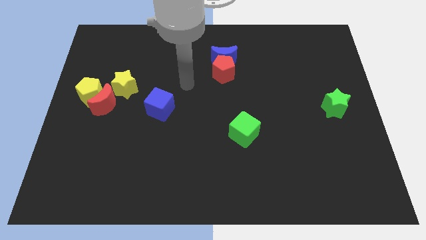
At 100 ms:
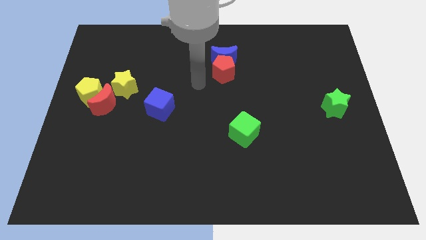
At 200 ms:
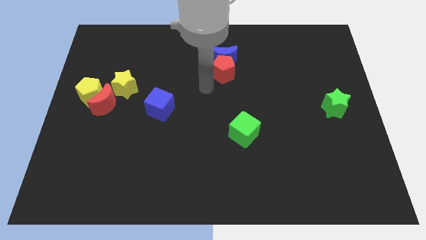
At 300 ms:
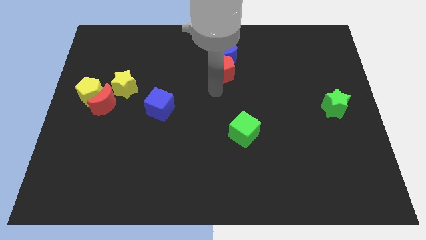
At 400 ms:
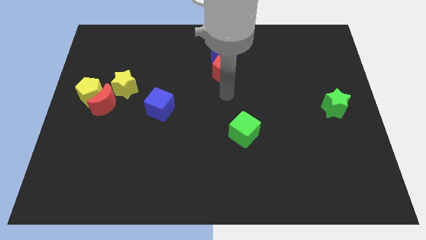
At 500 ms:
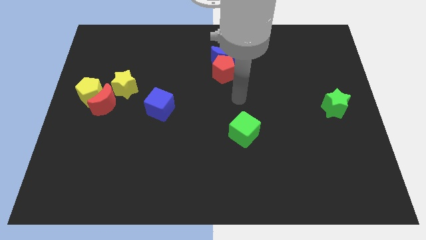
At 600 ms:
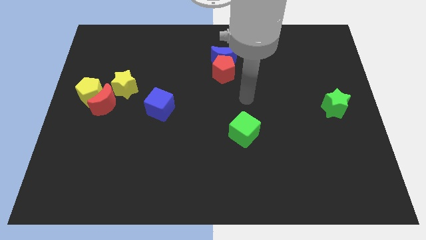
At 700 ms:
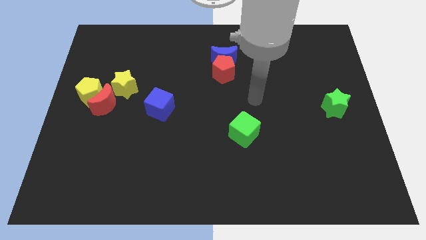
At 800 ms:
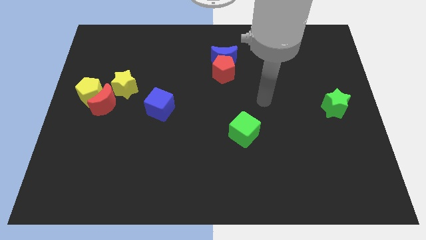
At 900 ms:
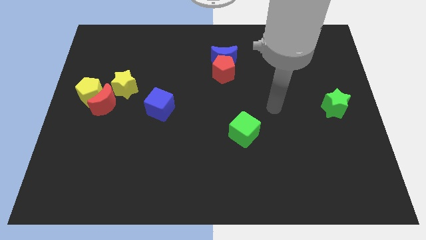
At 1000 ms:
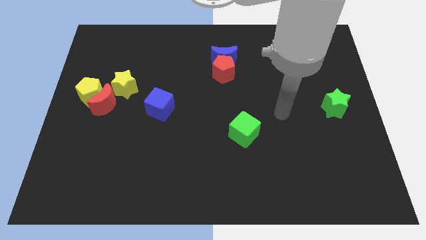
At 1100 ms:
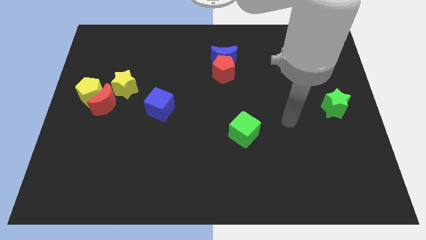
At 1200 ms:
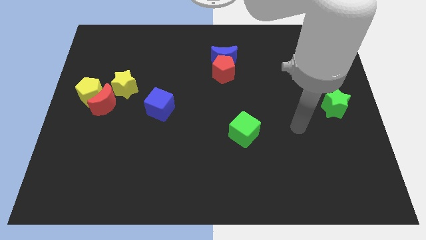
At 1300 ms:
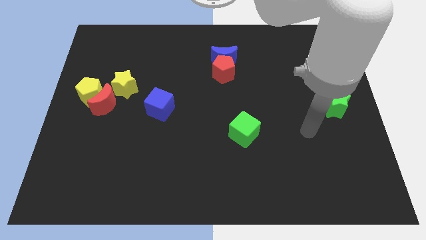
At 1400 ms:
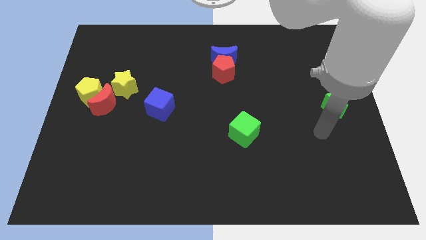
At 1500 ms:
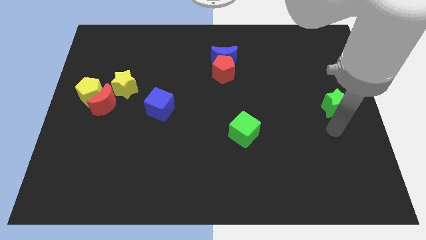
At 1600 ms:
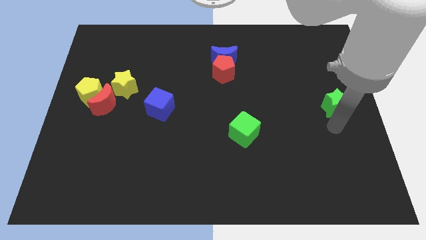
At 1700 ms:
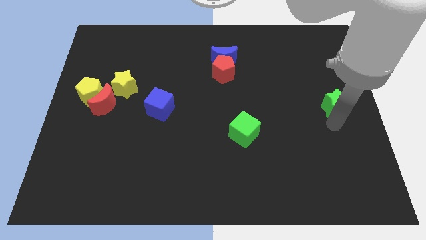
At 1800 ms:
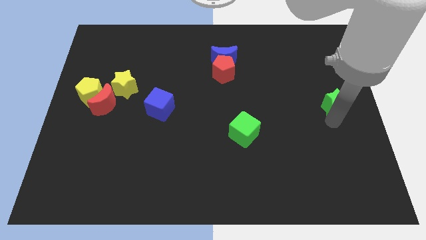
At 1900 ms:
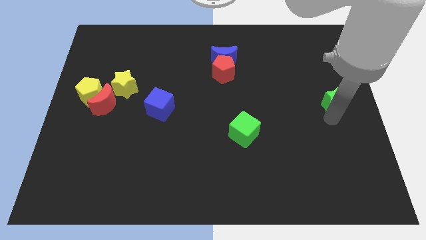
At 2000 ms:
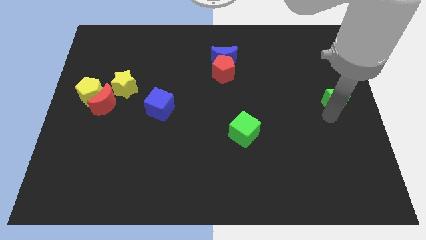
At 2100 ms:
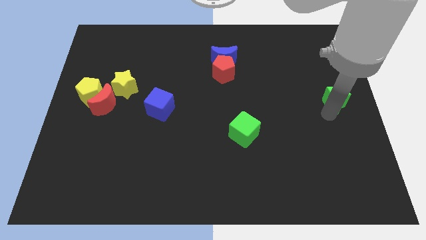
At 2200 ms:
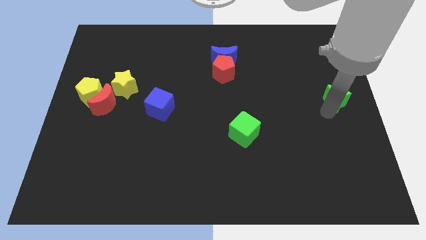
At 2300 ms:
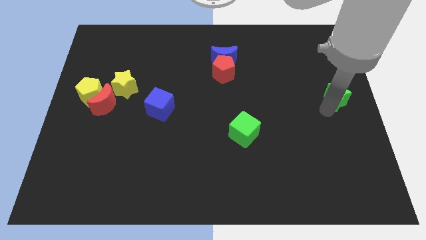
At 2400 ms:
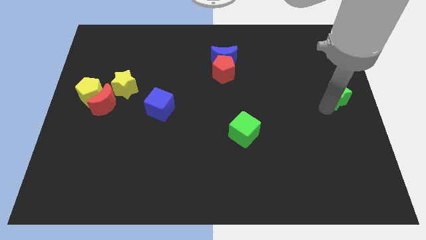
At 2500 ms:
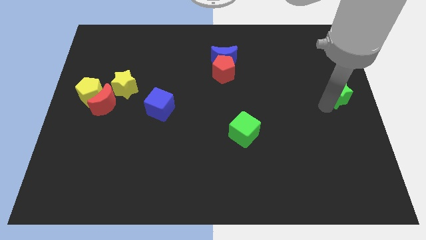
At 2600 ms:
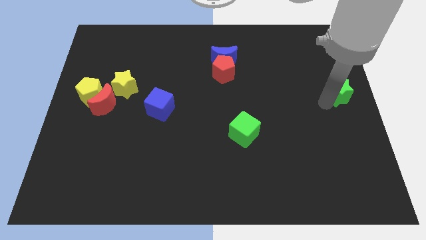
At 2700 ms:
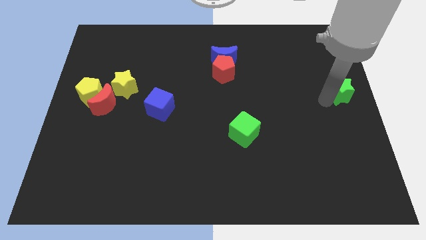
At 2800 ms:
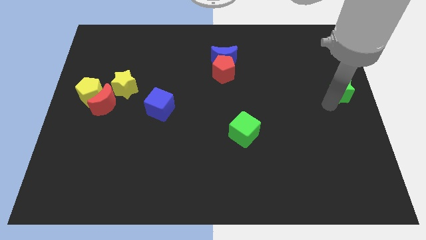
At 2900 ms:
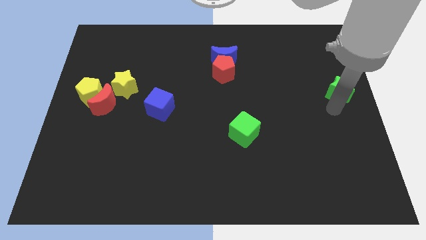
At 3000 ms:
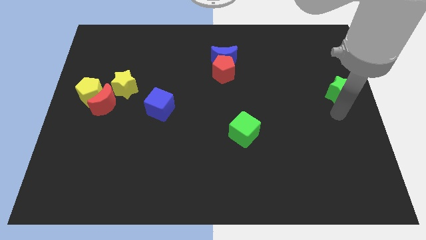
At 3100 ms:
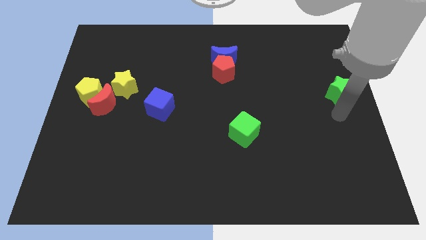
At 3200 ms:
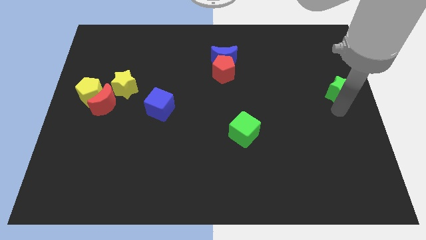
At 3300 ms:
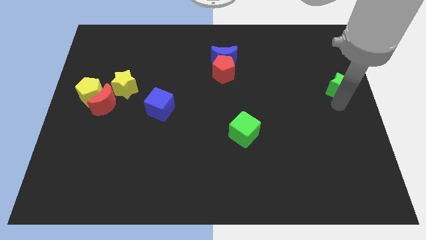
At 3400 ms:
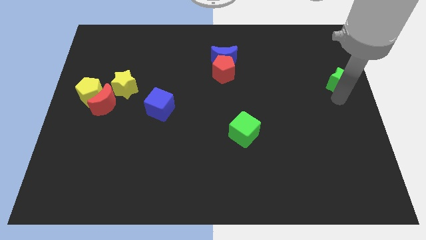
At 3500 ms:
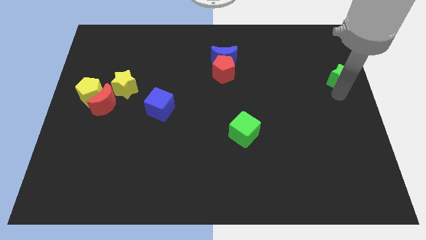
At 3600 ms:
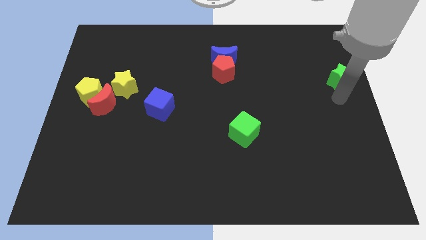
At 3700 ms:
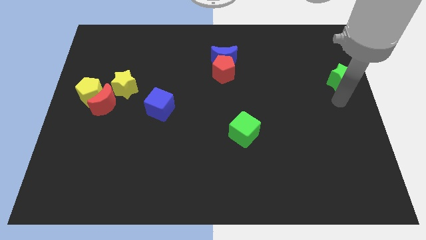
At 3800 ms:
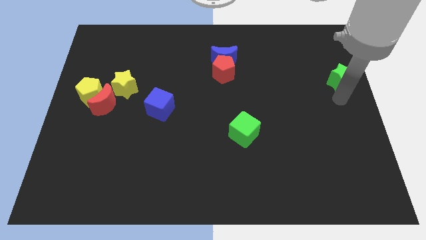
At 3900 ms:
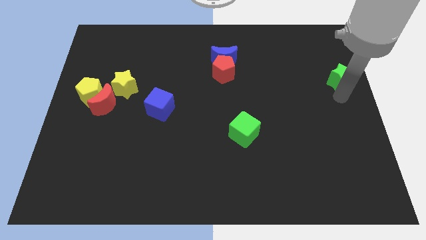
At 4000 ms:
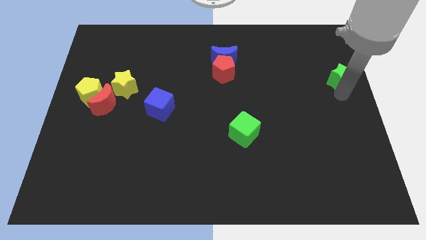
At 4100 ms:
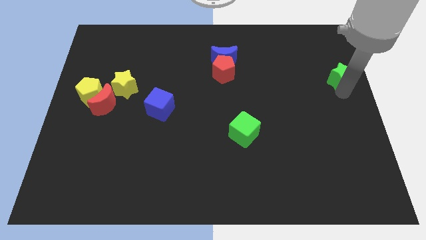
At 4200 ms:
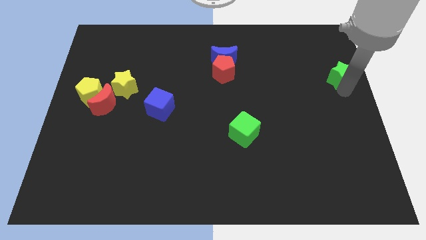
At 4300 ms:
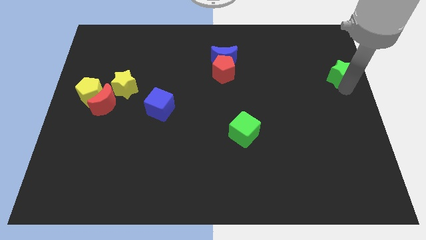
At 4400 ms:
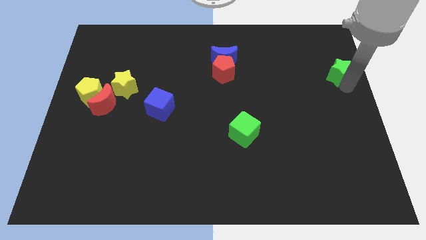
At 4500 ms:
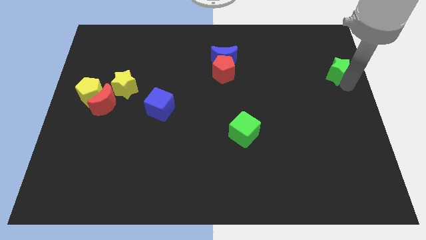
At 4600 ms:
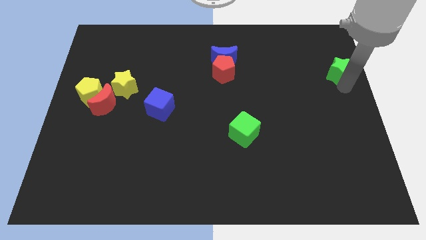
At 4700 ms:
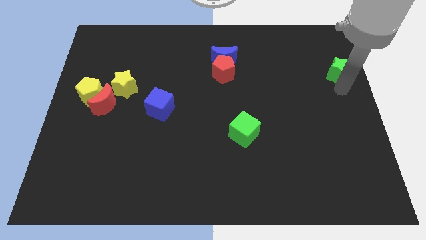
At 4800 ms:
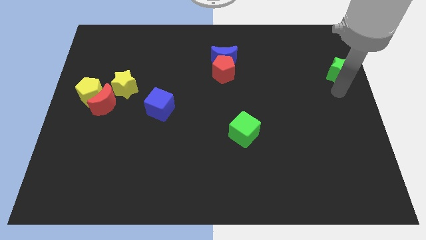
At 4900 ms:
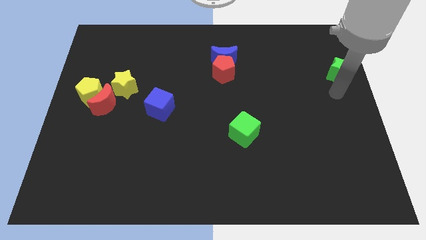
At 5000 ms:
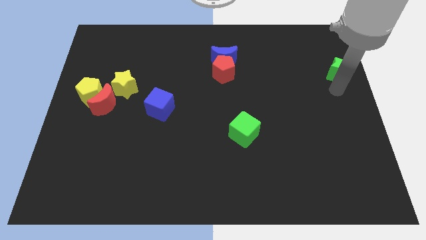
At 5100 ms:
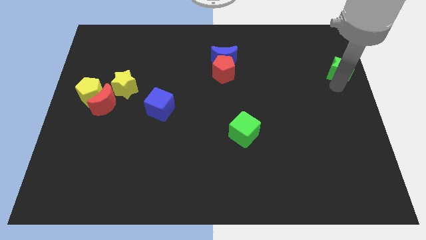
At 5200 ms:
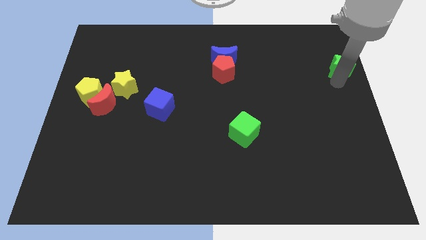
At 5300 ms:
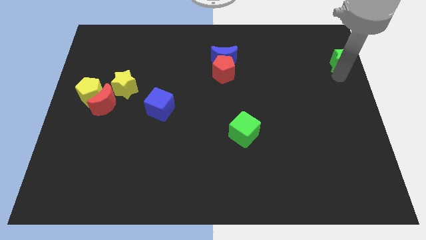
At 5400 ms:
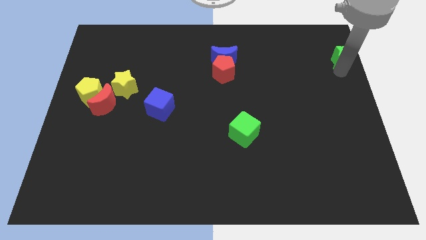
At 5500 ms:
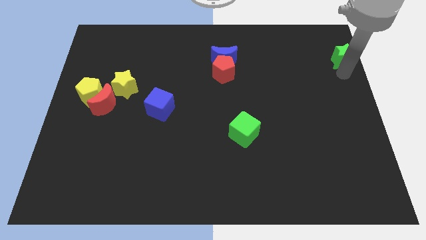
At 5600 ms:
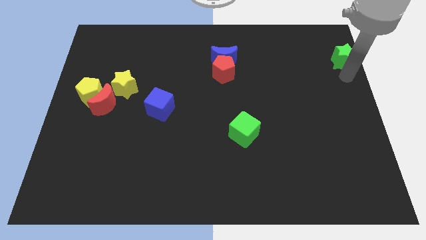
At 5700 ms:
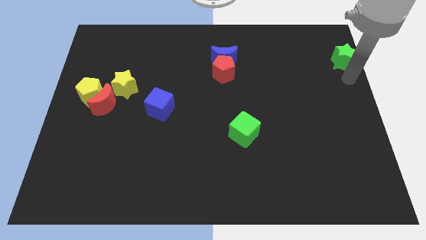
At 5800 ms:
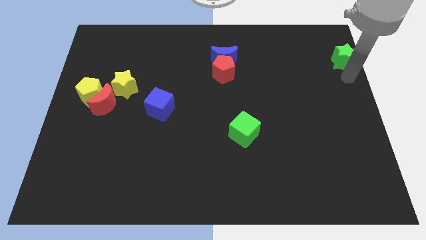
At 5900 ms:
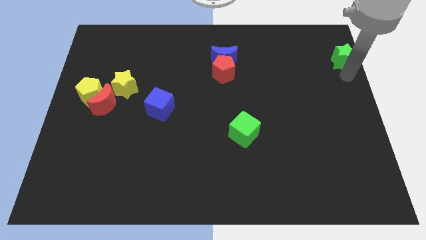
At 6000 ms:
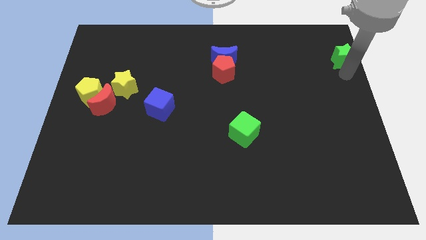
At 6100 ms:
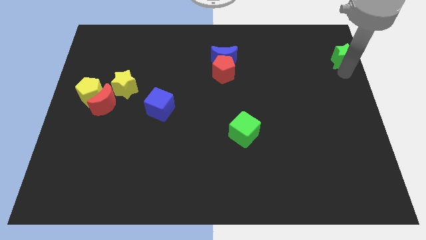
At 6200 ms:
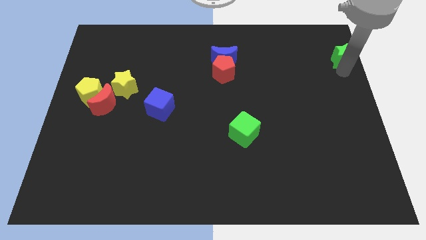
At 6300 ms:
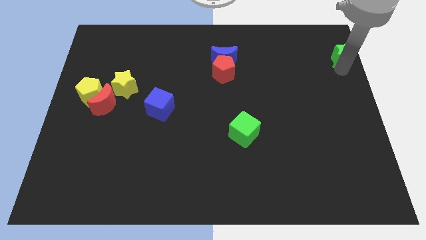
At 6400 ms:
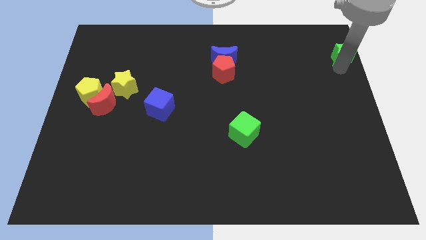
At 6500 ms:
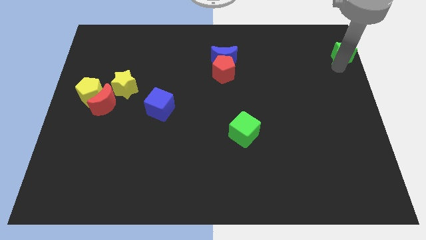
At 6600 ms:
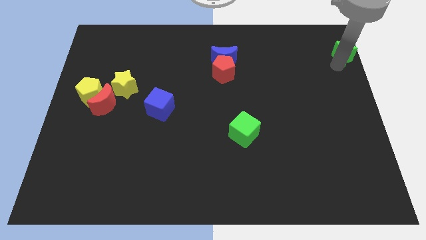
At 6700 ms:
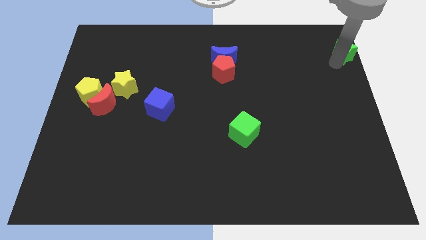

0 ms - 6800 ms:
put the green star to the top right

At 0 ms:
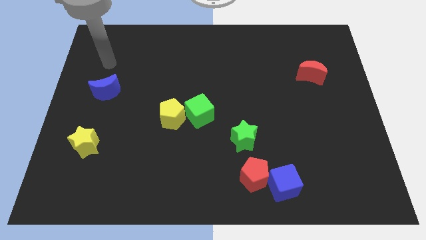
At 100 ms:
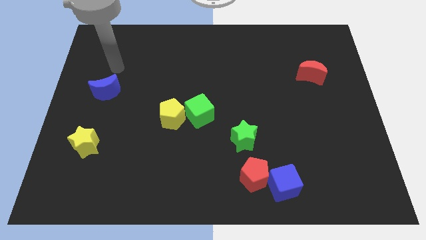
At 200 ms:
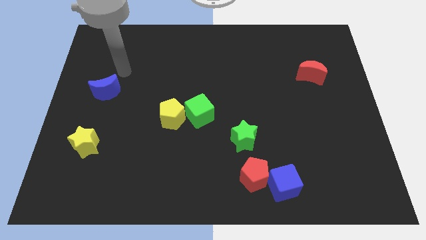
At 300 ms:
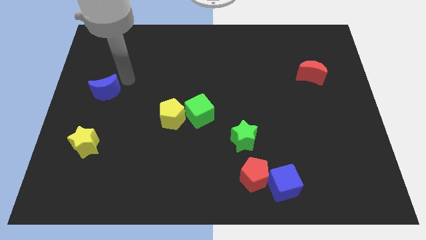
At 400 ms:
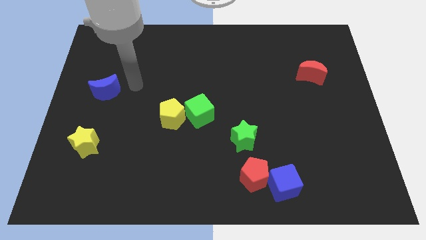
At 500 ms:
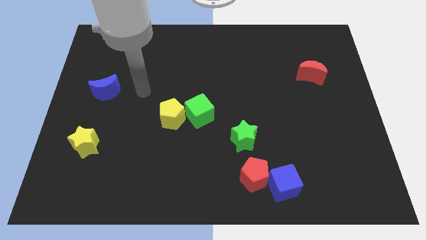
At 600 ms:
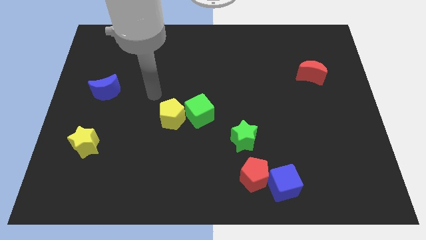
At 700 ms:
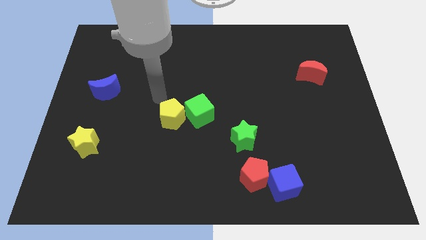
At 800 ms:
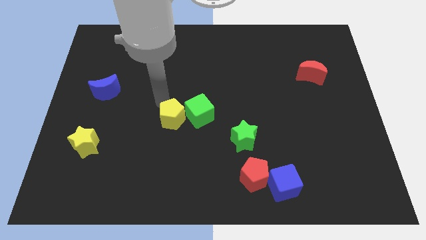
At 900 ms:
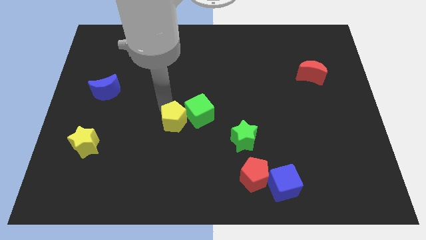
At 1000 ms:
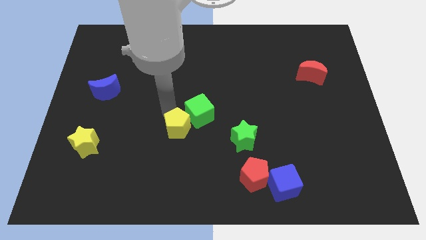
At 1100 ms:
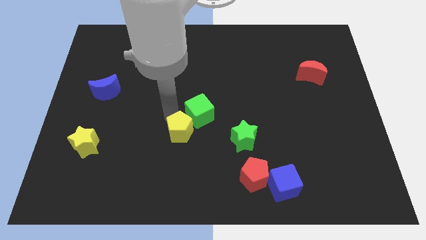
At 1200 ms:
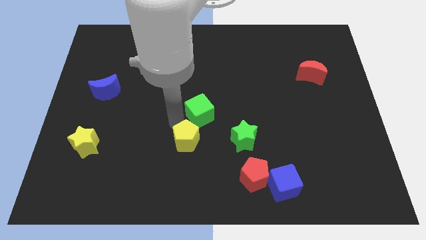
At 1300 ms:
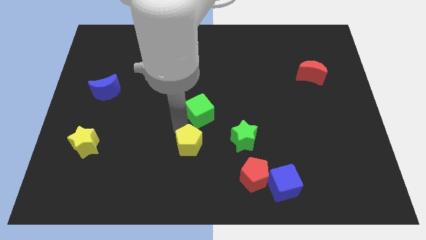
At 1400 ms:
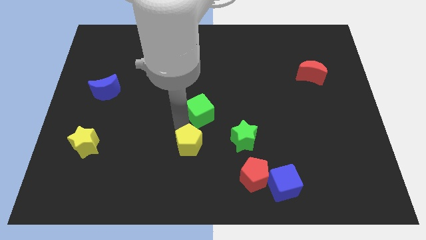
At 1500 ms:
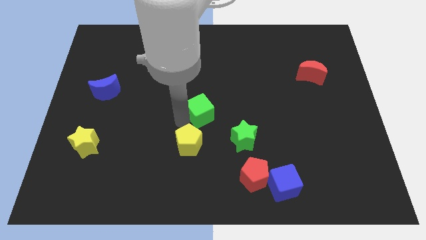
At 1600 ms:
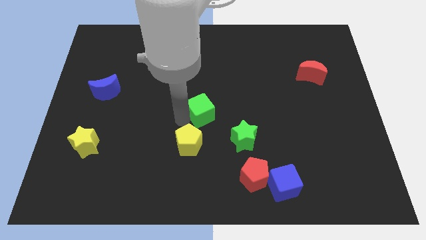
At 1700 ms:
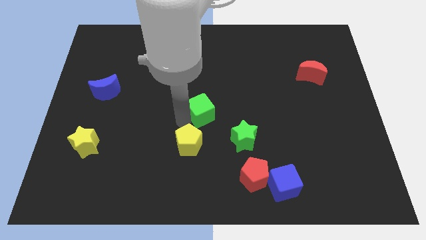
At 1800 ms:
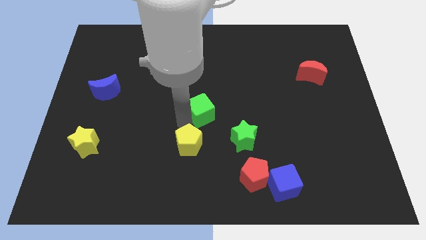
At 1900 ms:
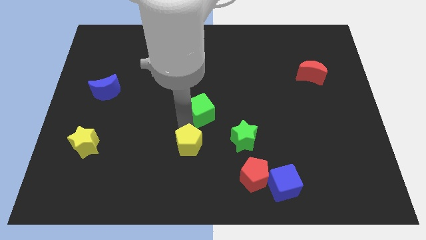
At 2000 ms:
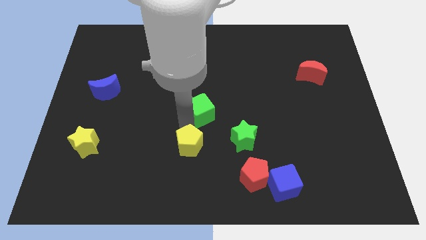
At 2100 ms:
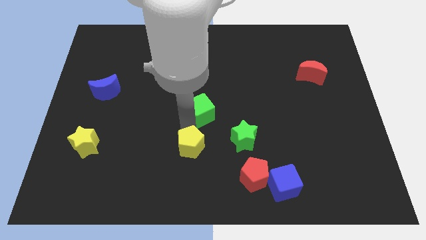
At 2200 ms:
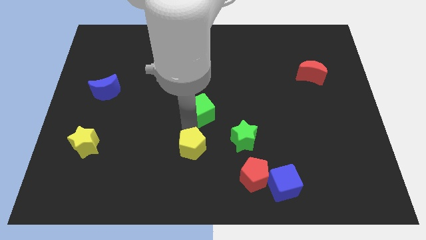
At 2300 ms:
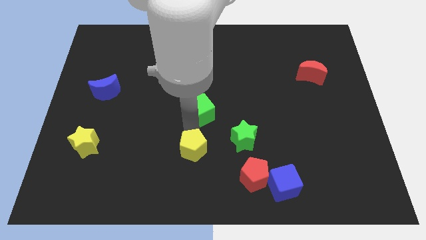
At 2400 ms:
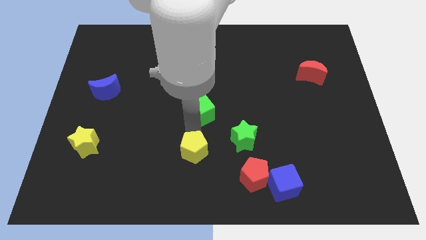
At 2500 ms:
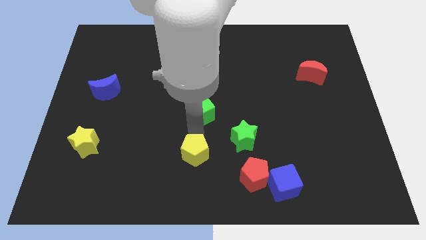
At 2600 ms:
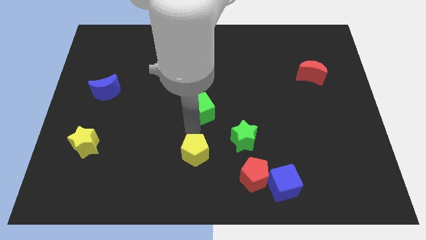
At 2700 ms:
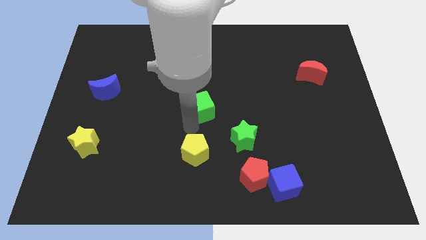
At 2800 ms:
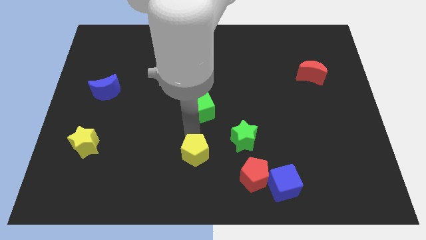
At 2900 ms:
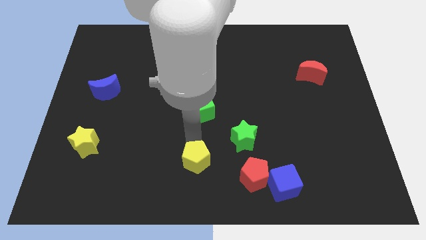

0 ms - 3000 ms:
push the yellow pentagon to the bottom side
